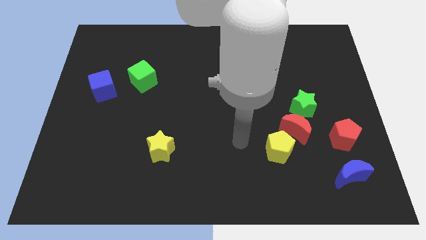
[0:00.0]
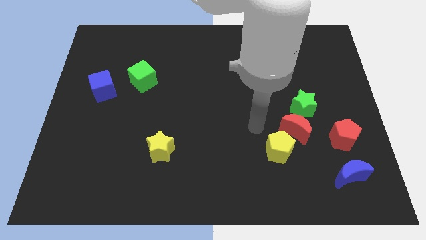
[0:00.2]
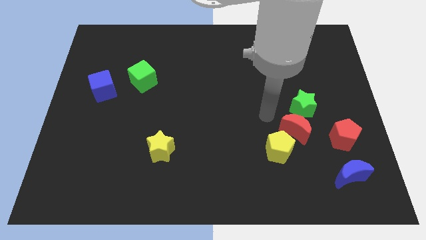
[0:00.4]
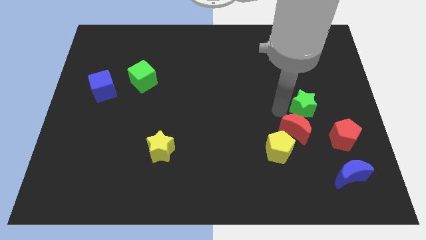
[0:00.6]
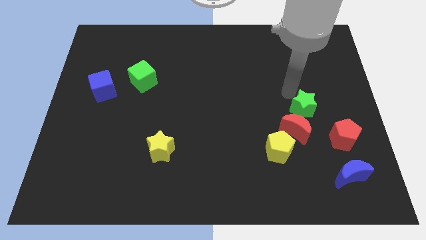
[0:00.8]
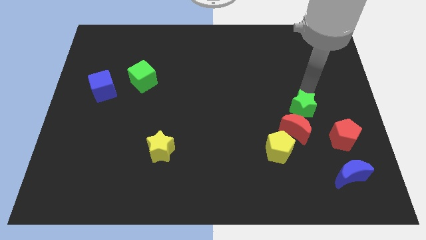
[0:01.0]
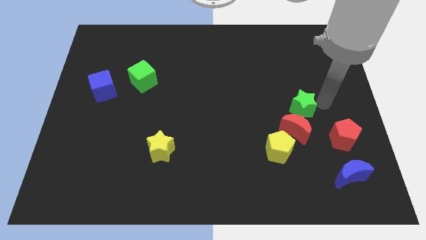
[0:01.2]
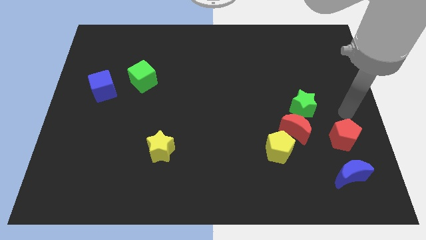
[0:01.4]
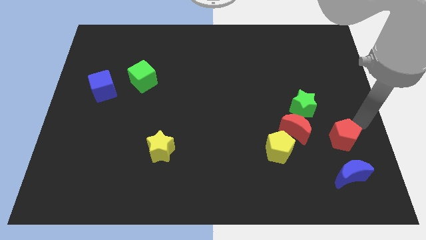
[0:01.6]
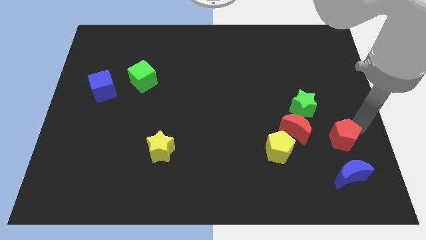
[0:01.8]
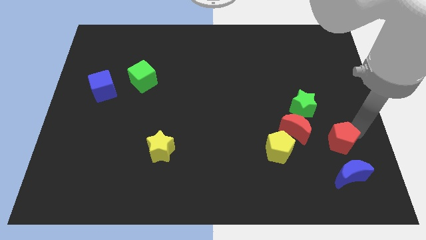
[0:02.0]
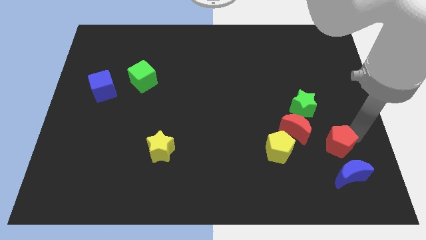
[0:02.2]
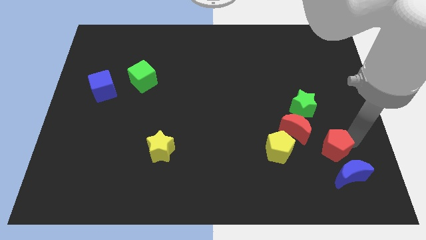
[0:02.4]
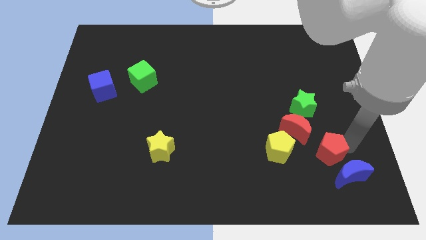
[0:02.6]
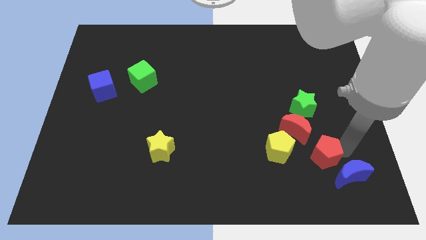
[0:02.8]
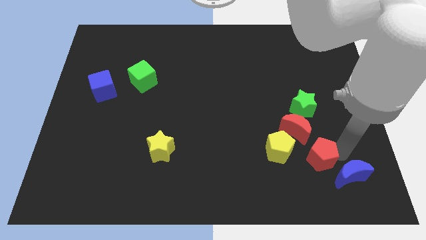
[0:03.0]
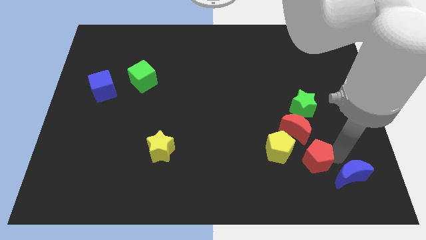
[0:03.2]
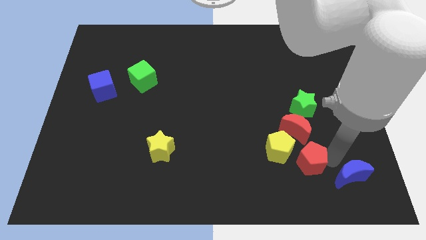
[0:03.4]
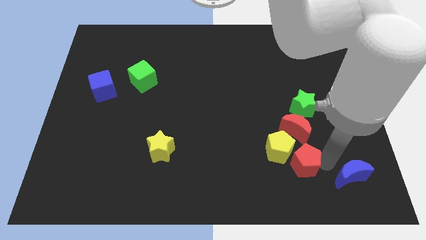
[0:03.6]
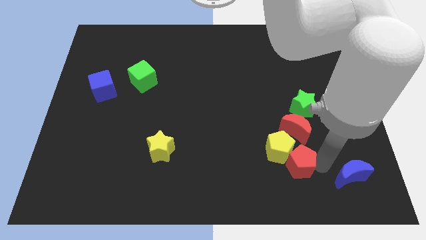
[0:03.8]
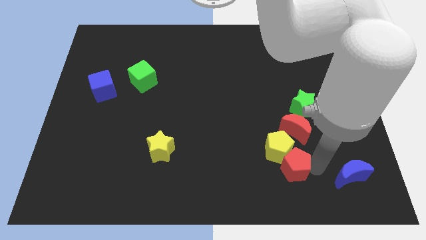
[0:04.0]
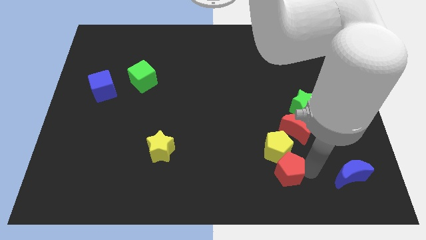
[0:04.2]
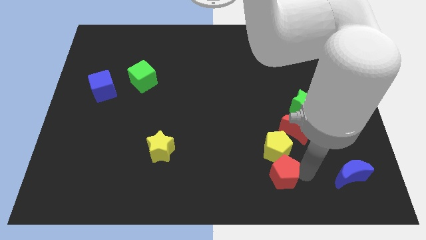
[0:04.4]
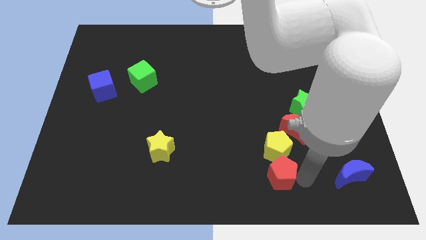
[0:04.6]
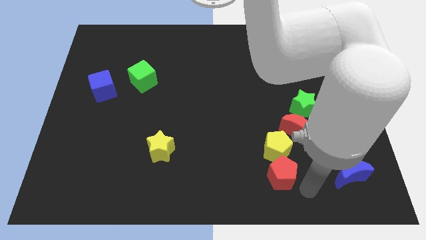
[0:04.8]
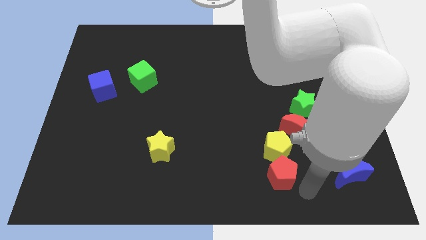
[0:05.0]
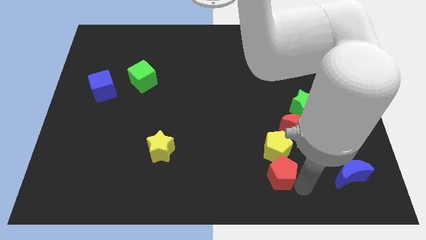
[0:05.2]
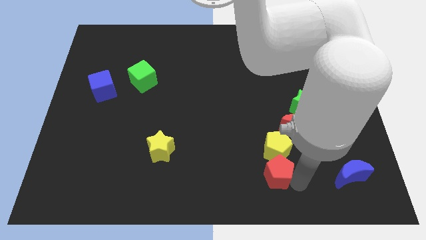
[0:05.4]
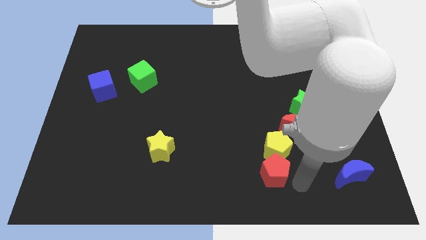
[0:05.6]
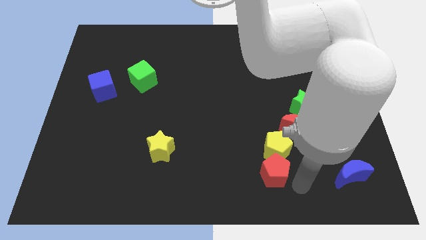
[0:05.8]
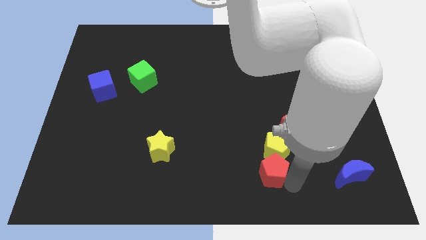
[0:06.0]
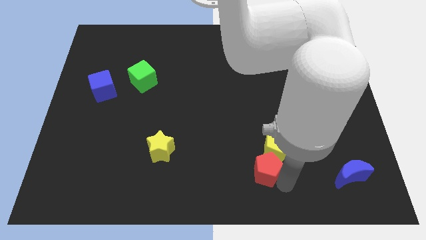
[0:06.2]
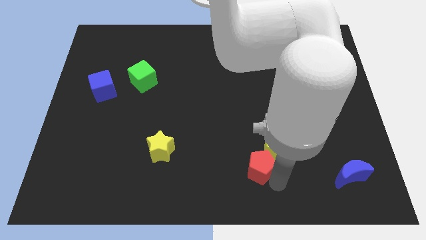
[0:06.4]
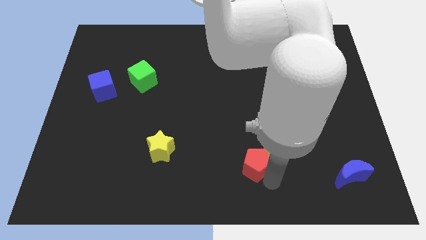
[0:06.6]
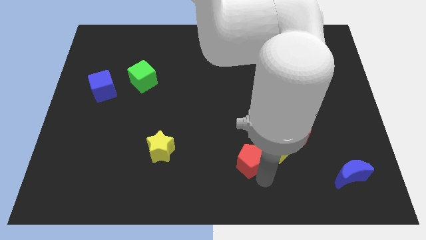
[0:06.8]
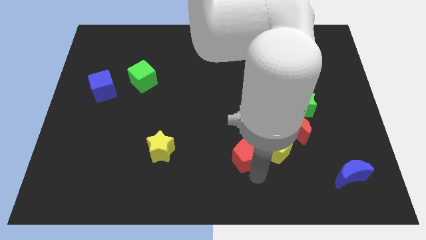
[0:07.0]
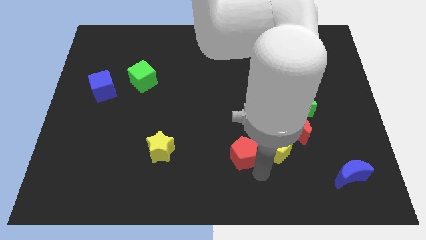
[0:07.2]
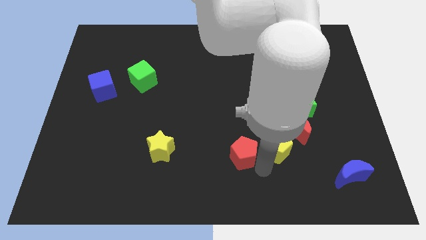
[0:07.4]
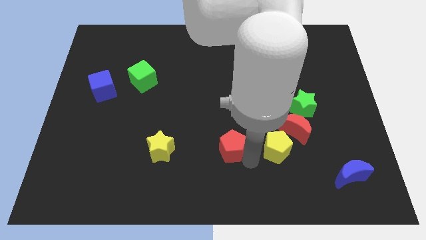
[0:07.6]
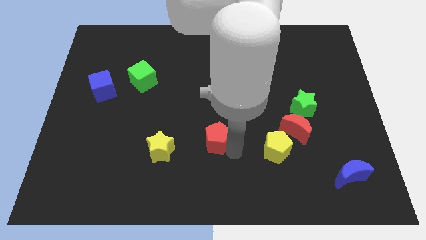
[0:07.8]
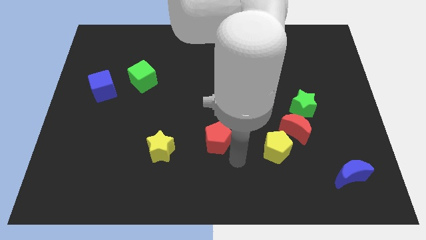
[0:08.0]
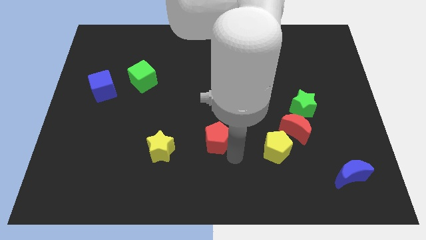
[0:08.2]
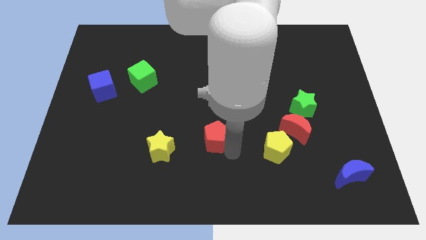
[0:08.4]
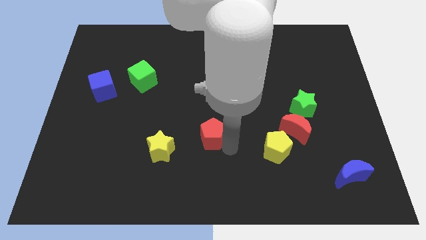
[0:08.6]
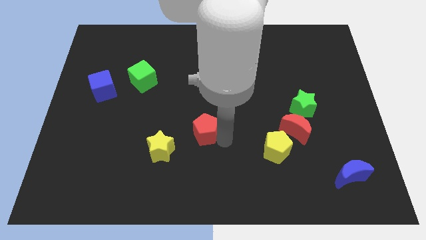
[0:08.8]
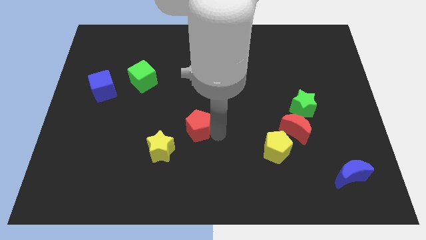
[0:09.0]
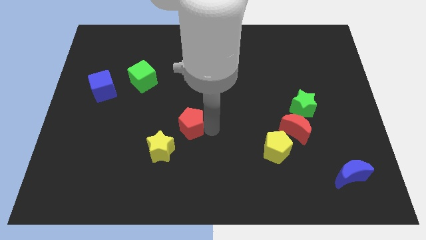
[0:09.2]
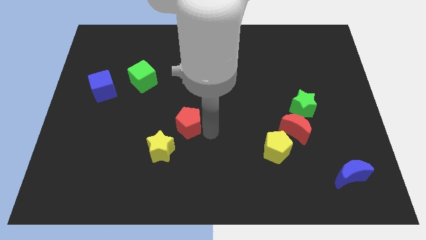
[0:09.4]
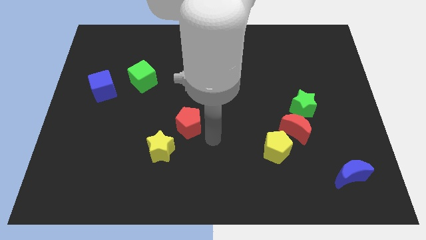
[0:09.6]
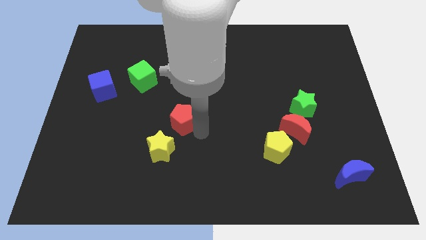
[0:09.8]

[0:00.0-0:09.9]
put the red pentagon above the yellow star

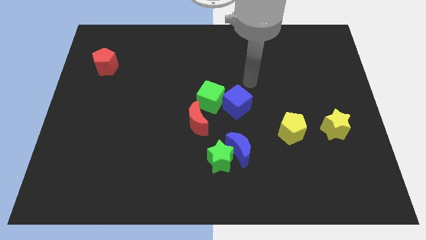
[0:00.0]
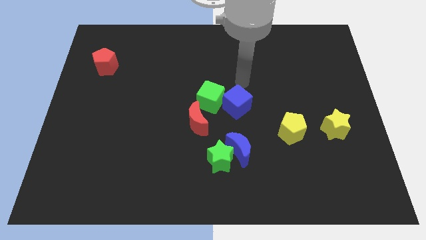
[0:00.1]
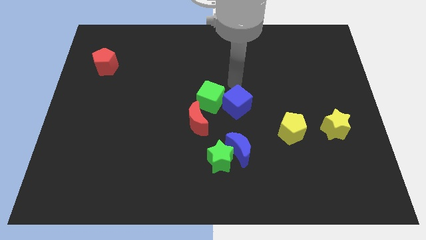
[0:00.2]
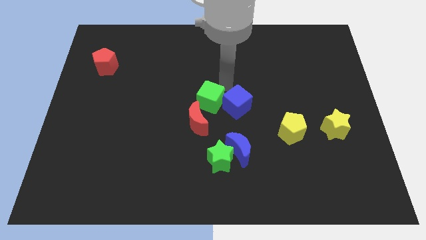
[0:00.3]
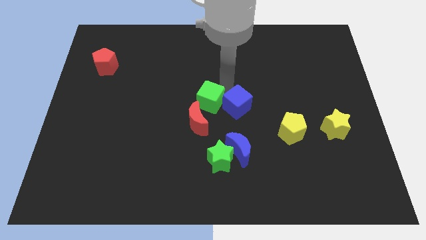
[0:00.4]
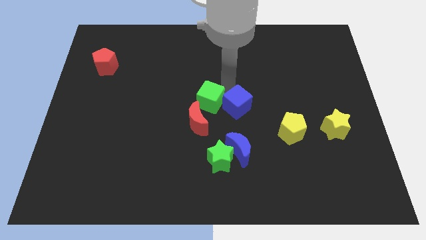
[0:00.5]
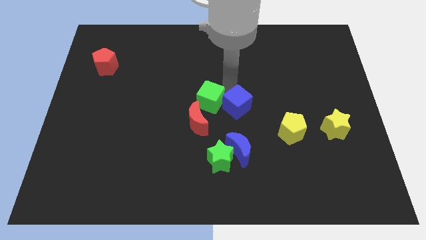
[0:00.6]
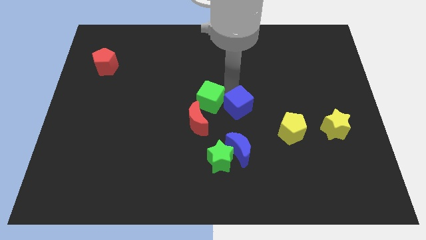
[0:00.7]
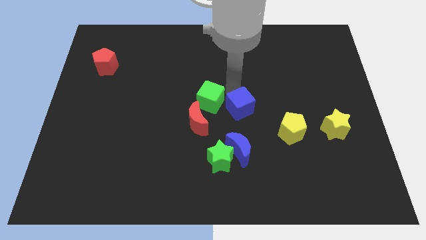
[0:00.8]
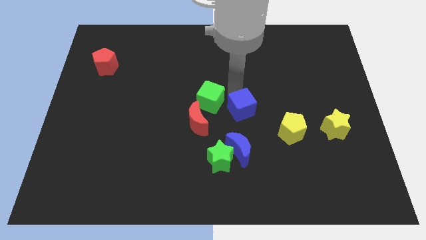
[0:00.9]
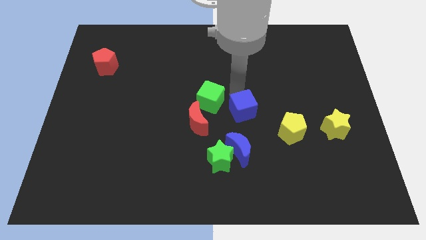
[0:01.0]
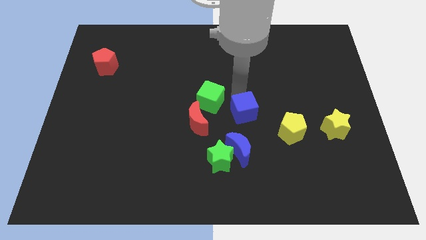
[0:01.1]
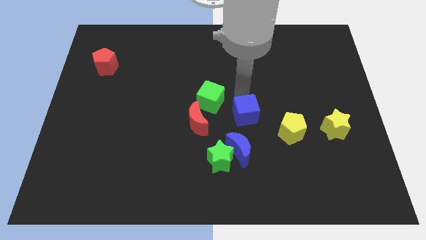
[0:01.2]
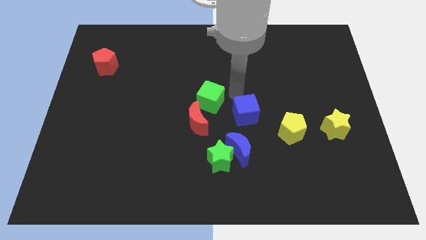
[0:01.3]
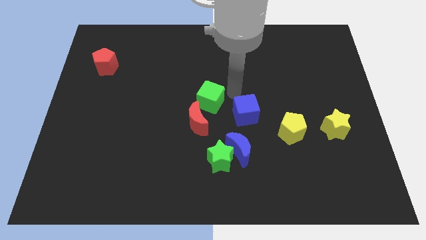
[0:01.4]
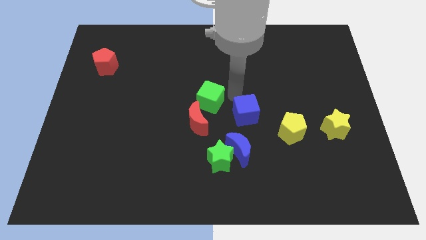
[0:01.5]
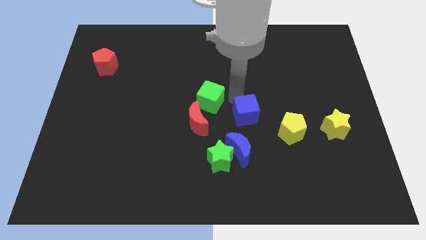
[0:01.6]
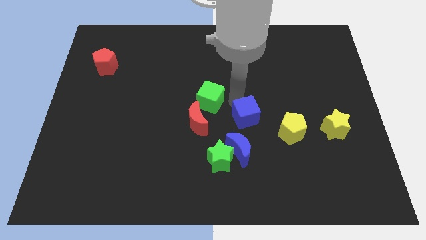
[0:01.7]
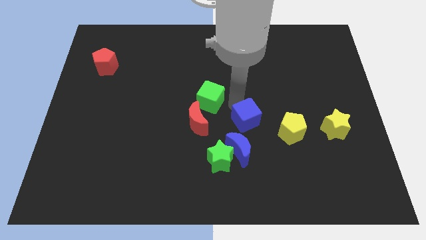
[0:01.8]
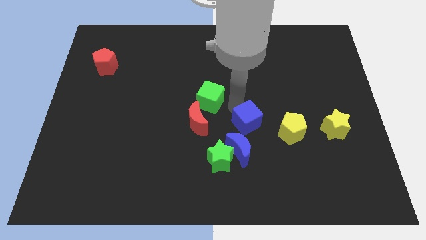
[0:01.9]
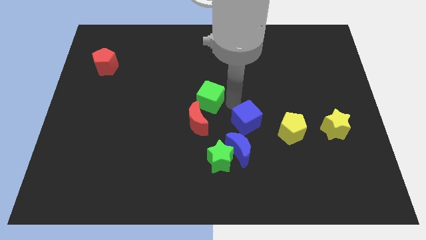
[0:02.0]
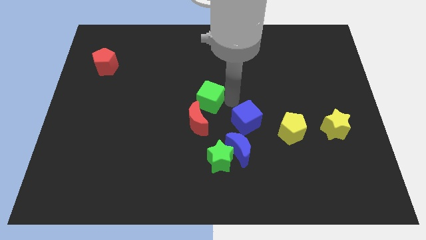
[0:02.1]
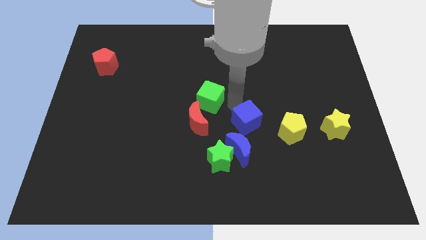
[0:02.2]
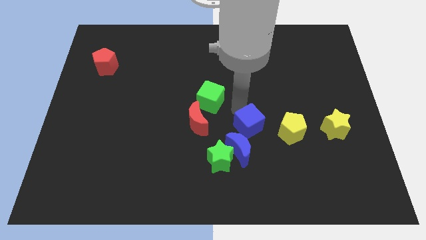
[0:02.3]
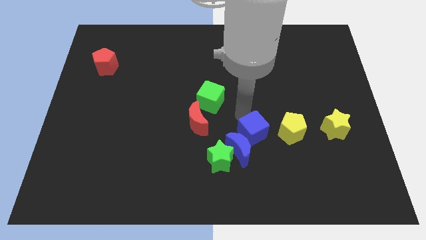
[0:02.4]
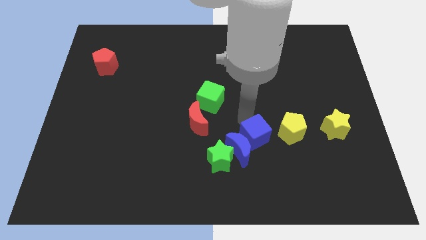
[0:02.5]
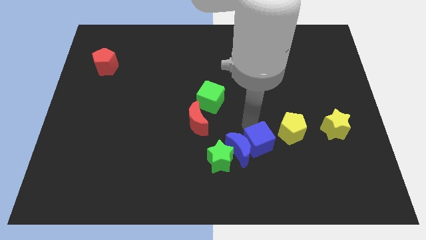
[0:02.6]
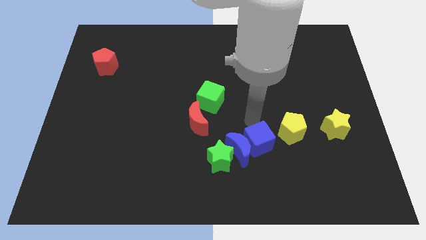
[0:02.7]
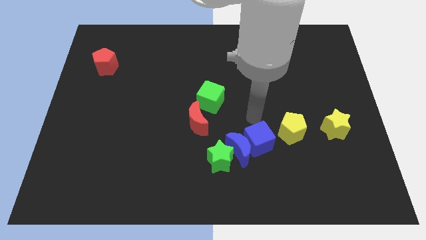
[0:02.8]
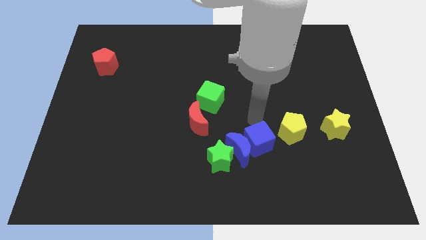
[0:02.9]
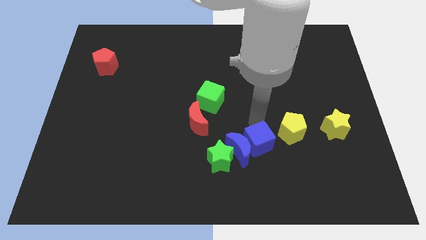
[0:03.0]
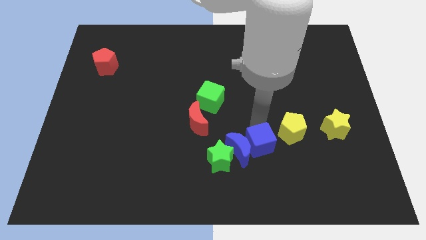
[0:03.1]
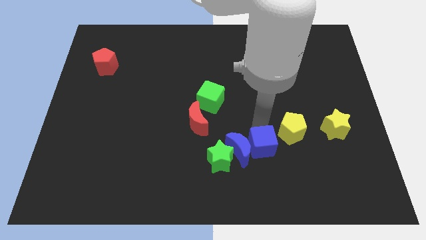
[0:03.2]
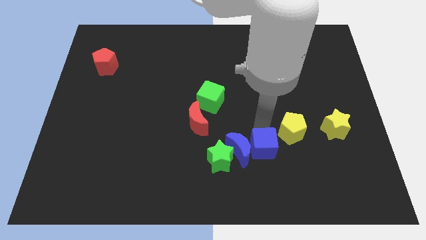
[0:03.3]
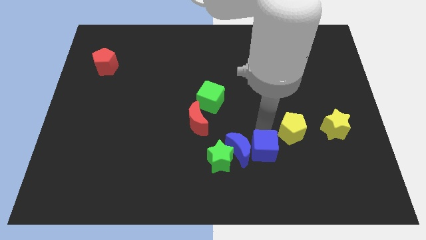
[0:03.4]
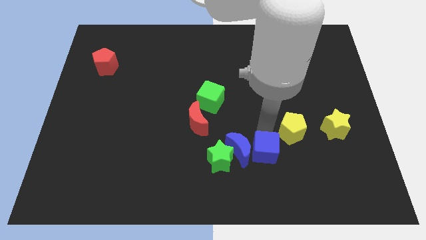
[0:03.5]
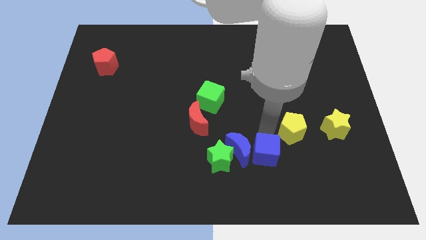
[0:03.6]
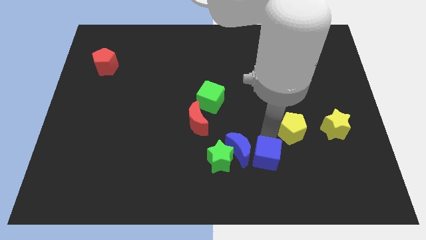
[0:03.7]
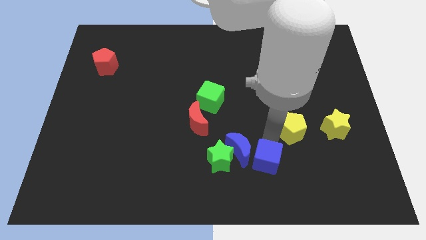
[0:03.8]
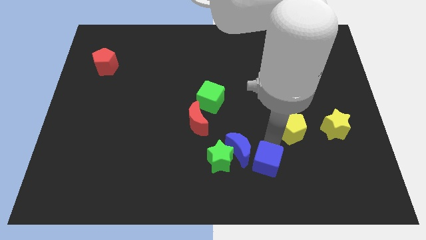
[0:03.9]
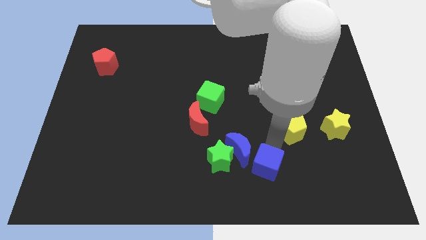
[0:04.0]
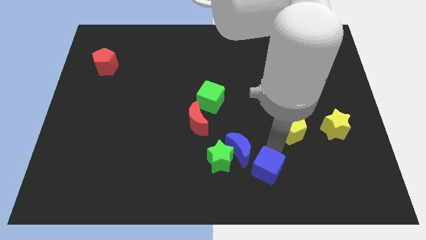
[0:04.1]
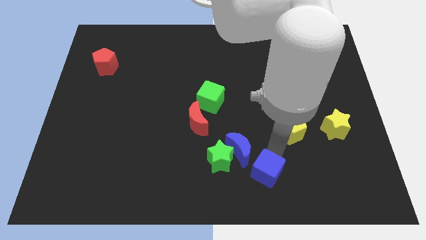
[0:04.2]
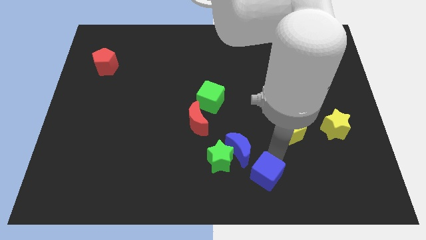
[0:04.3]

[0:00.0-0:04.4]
slide the blue cube diagonally down and to the right of the green star
